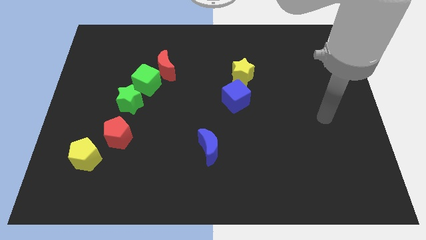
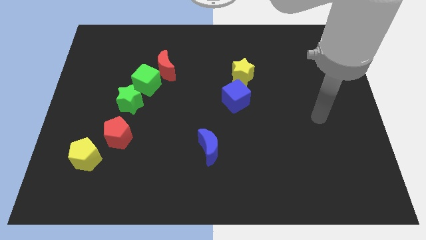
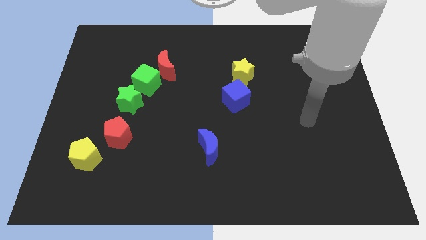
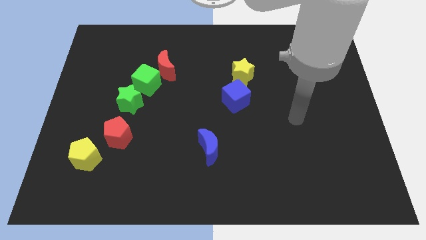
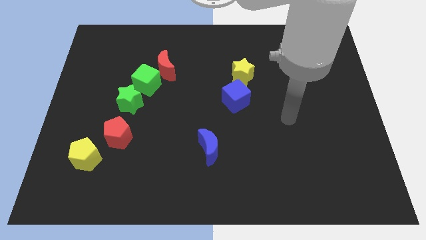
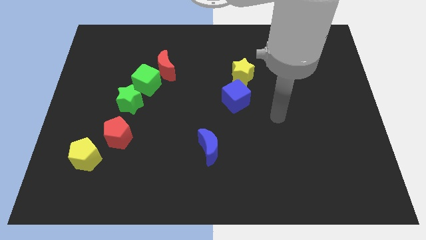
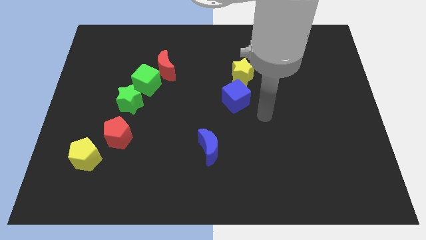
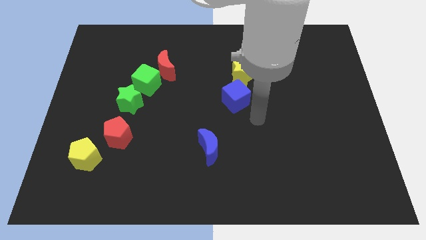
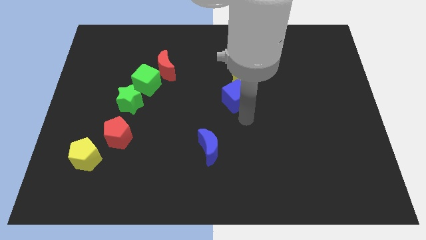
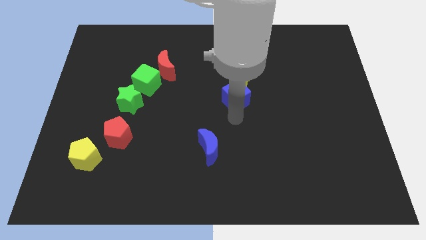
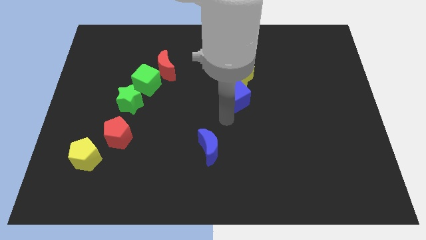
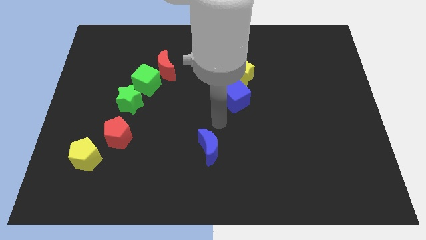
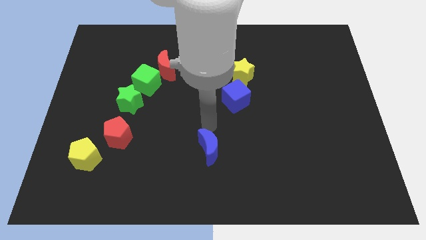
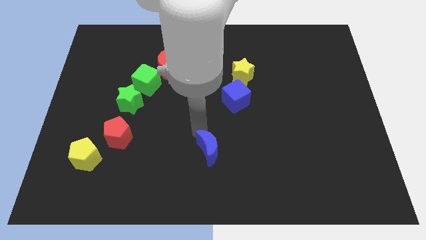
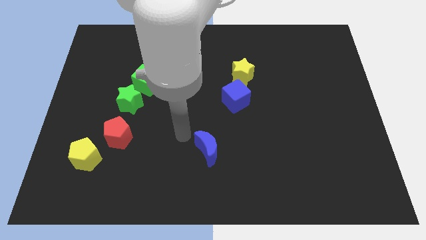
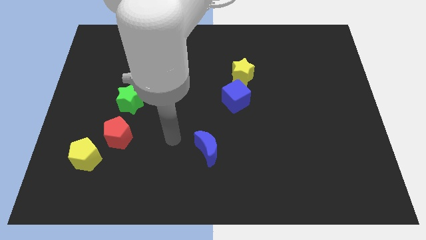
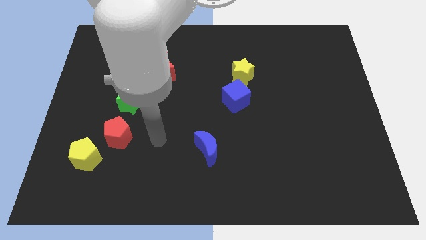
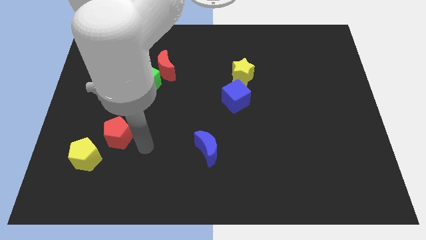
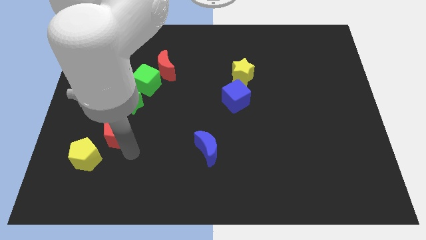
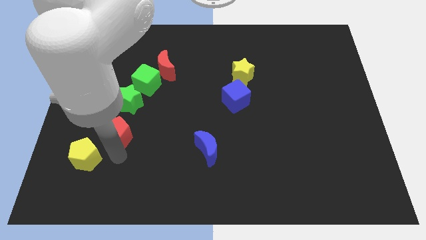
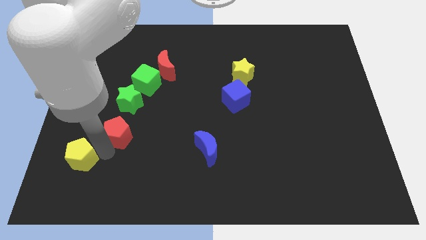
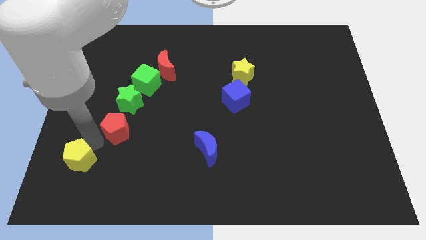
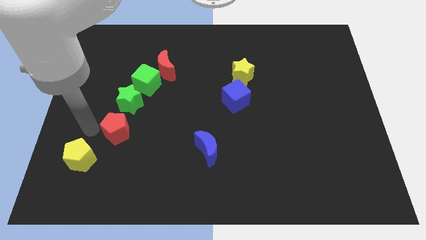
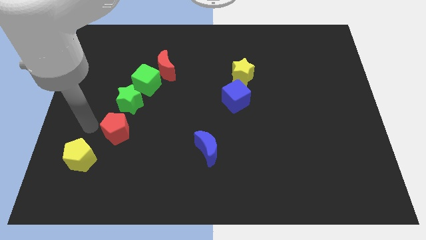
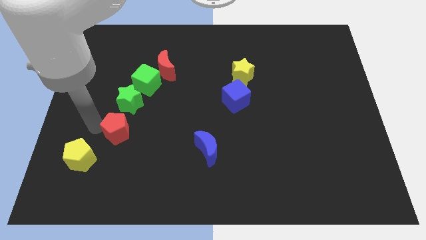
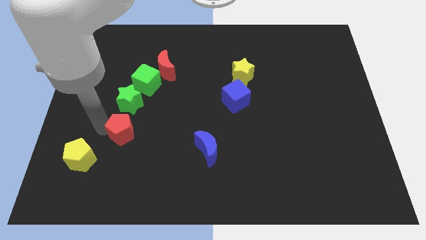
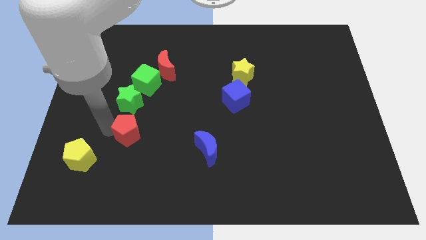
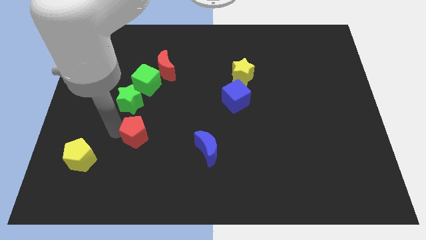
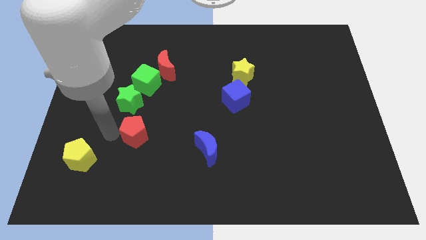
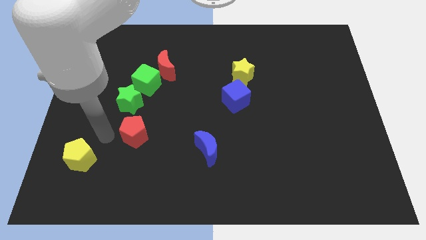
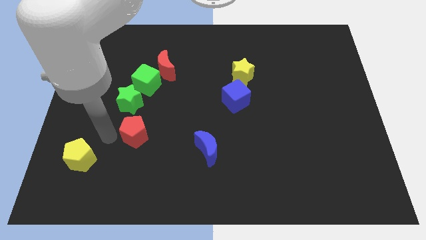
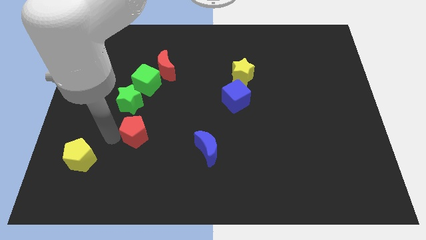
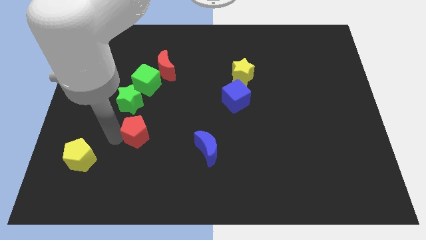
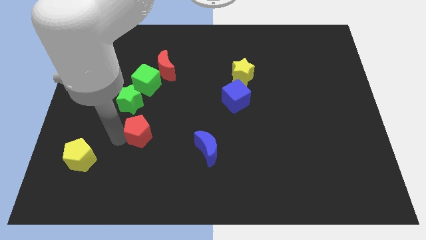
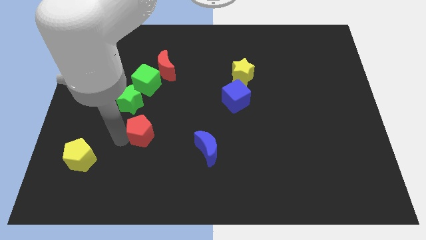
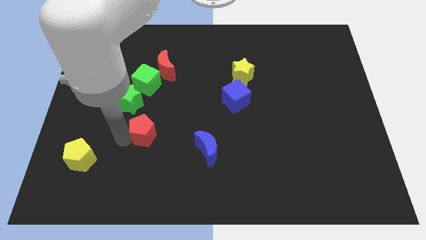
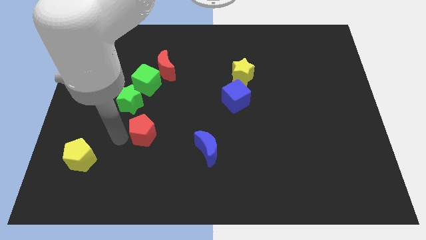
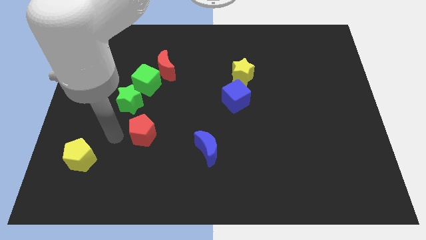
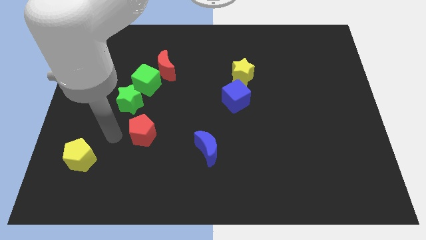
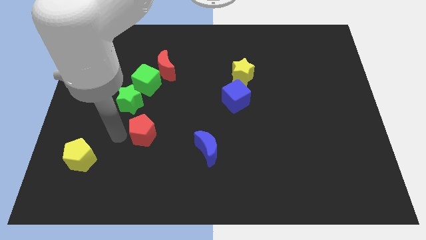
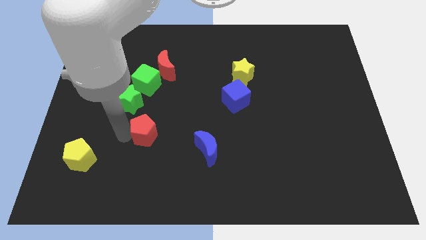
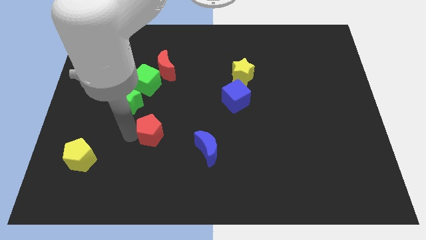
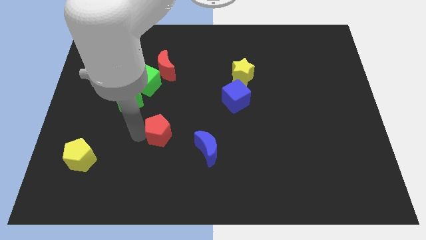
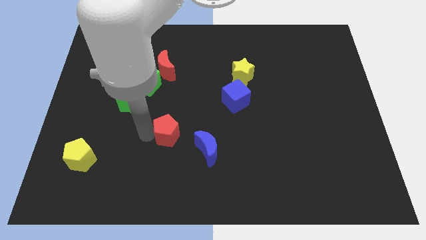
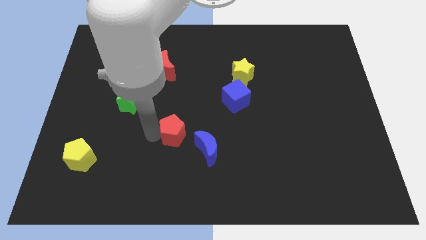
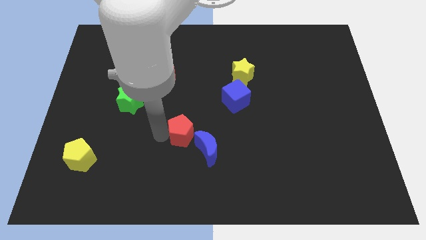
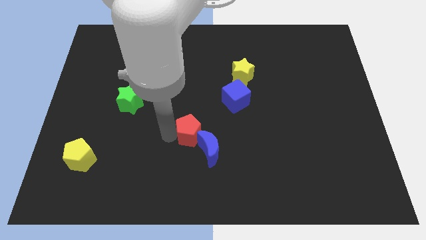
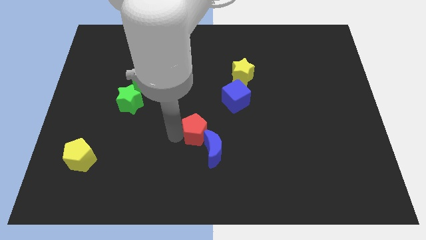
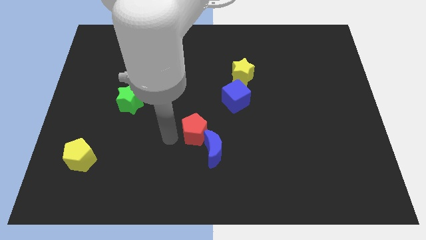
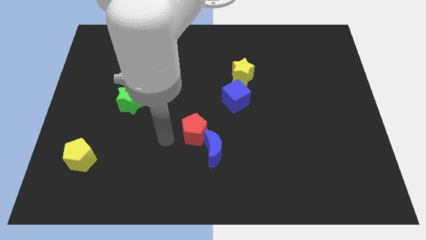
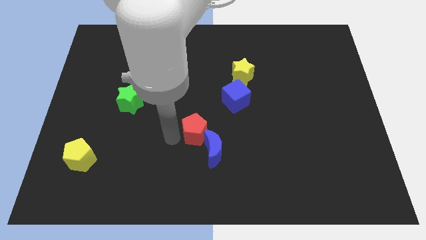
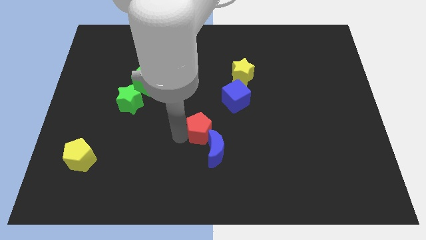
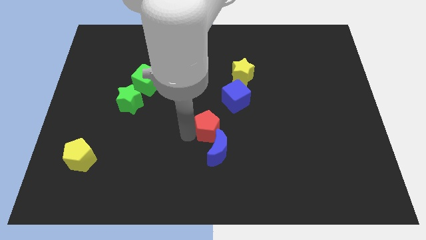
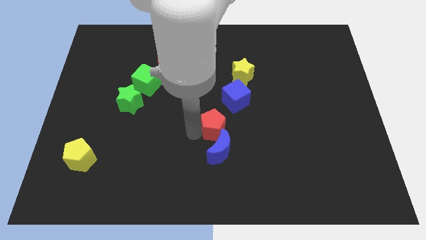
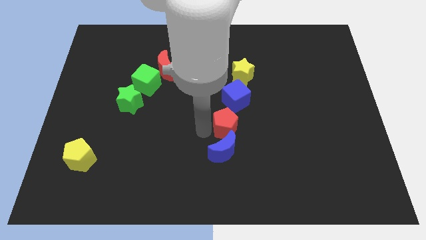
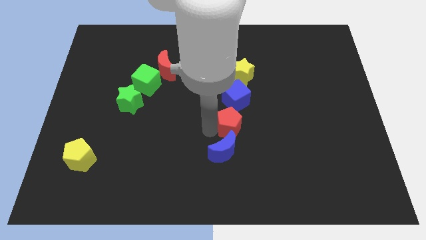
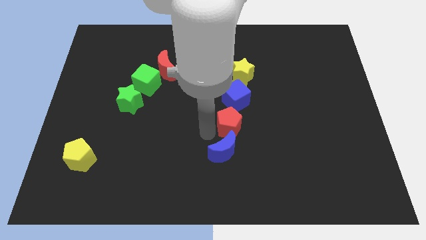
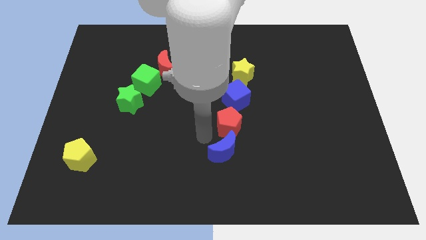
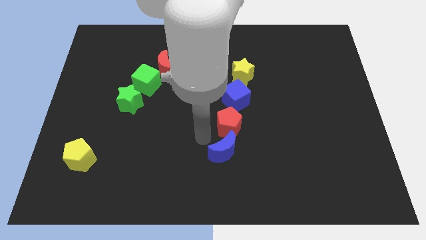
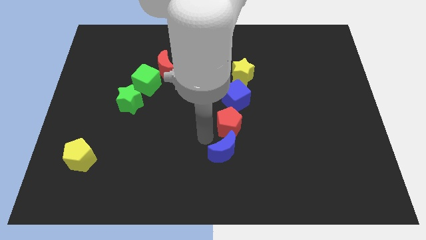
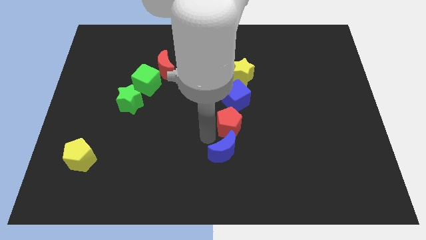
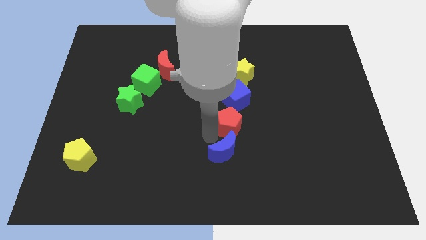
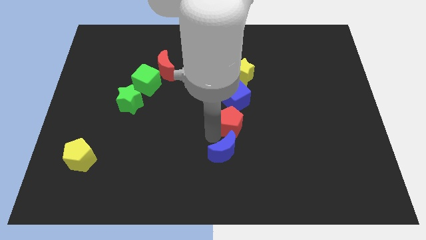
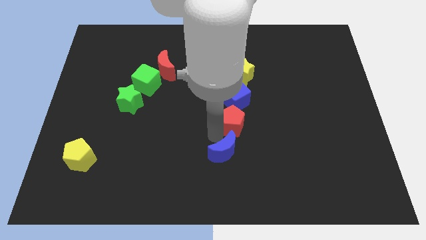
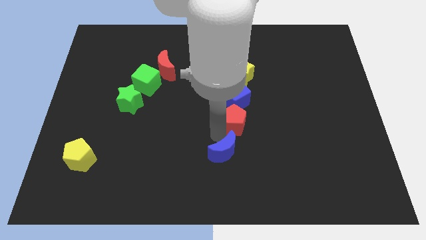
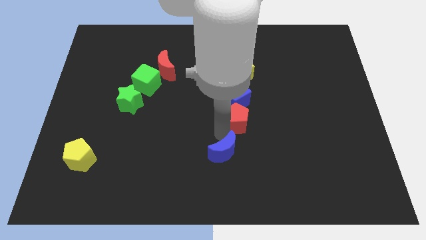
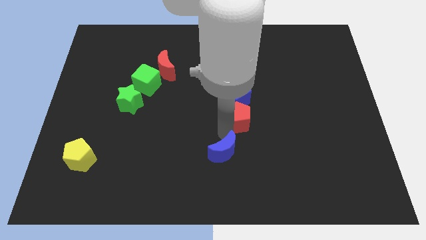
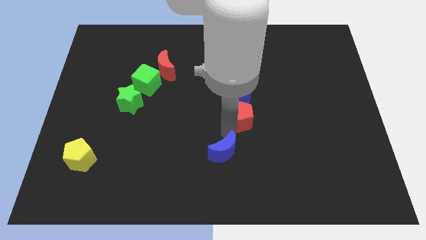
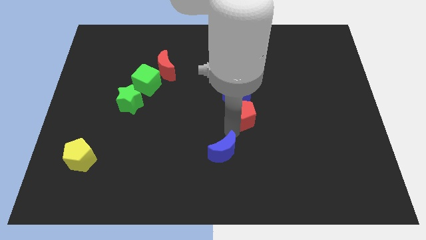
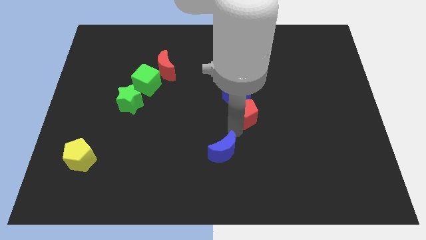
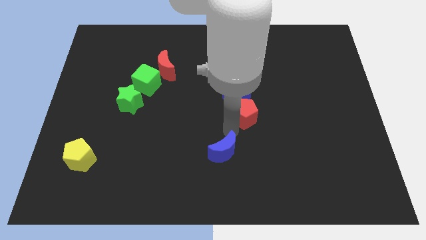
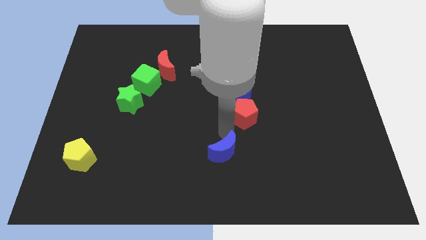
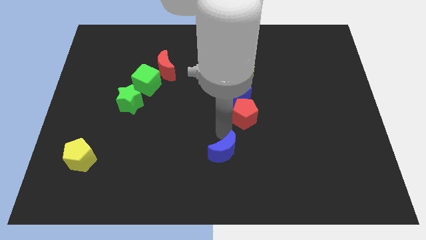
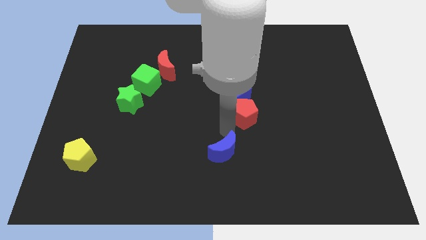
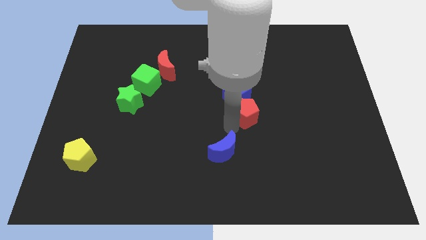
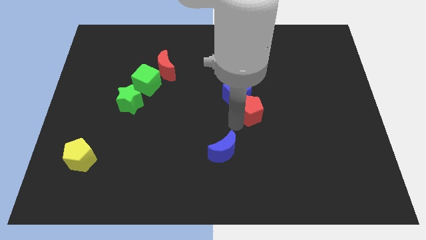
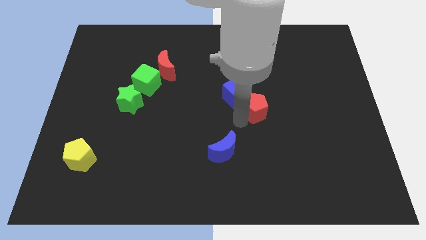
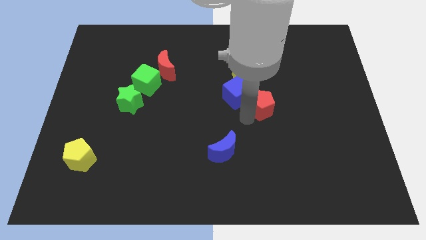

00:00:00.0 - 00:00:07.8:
move the red pentagon to the bottom right side of the yellow star
